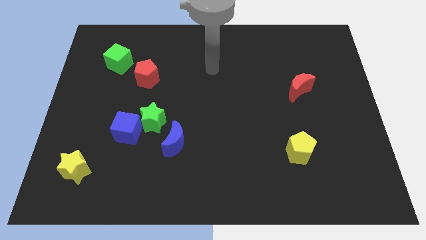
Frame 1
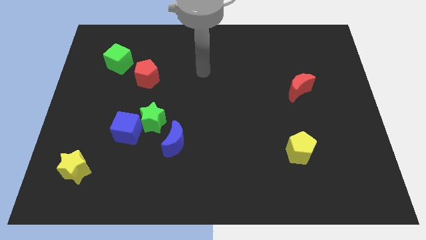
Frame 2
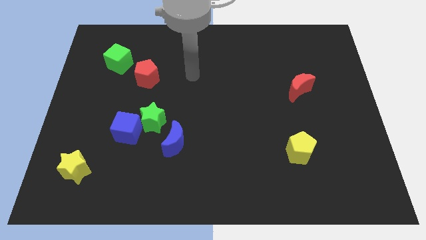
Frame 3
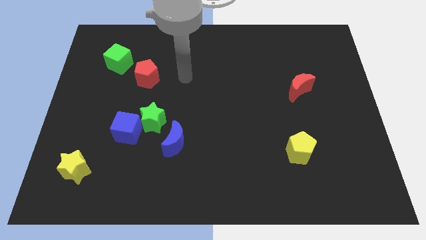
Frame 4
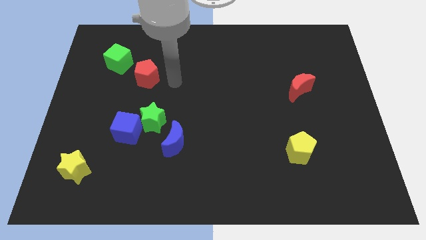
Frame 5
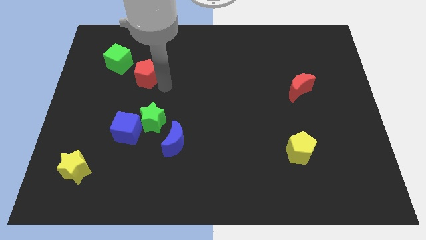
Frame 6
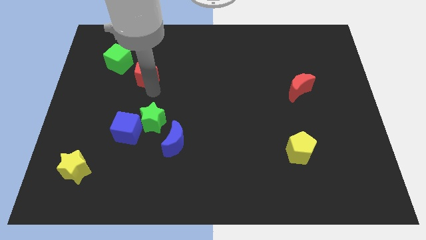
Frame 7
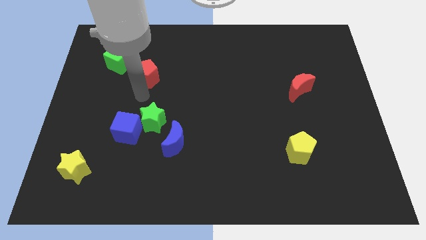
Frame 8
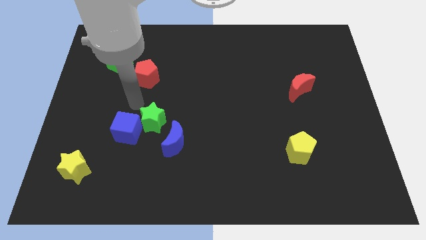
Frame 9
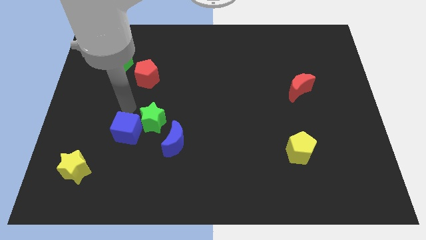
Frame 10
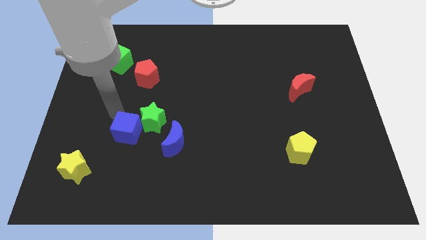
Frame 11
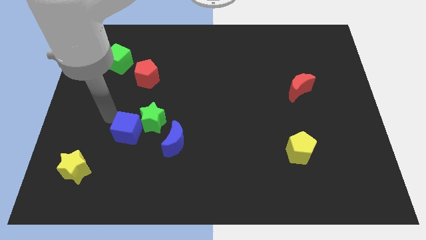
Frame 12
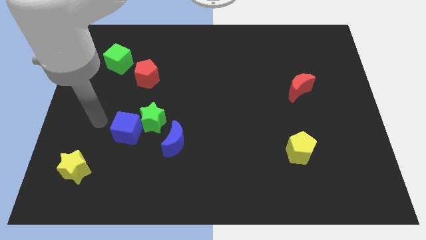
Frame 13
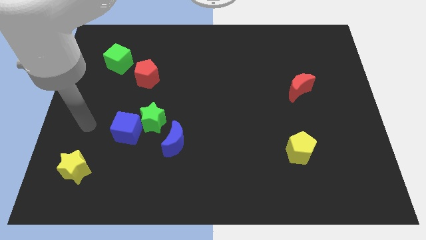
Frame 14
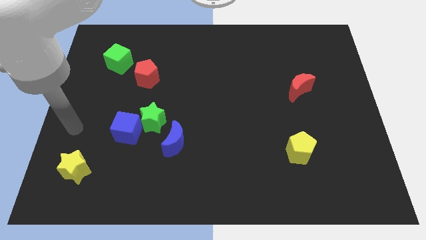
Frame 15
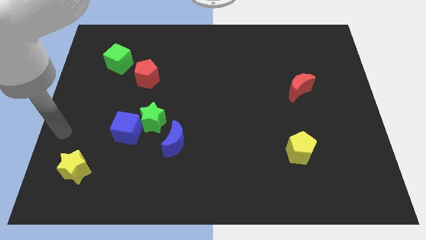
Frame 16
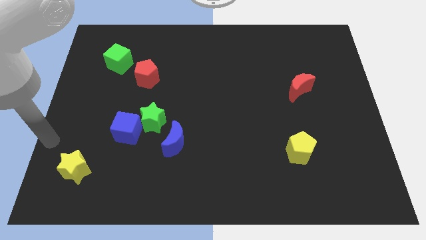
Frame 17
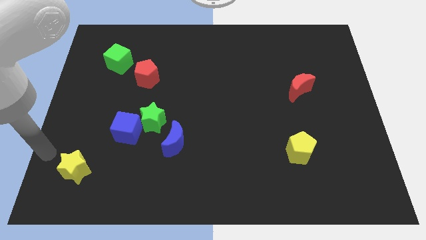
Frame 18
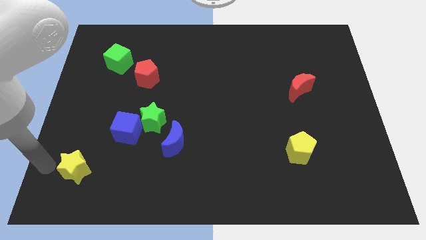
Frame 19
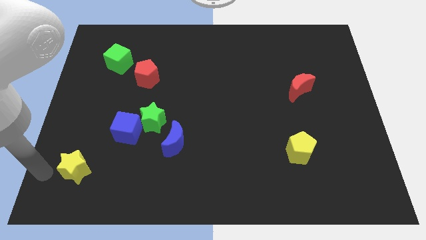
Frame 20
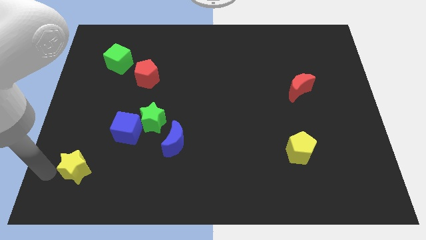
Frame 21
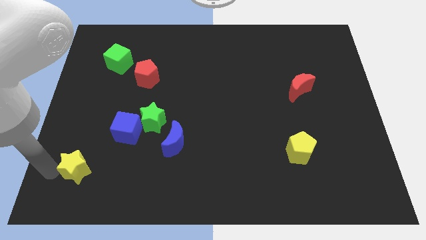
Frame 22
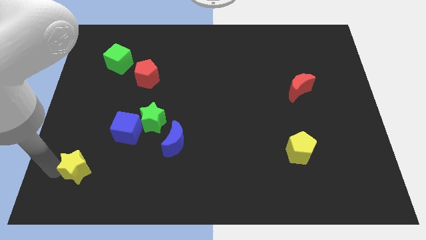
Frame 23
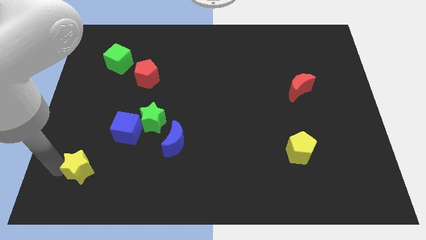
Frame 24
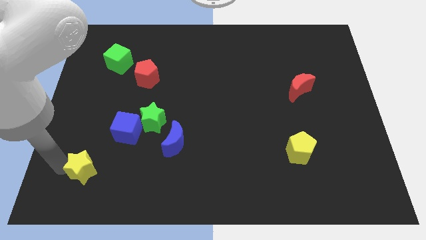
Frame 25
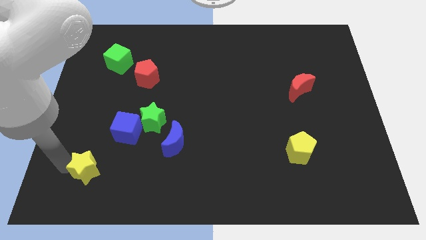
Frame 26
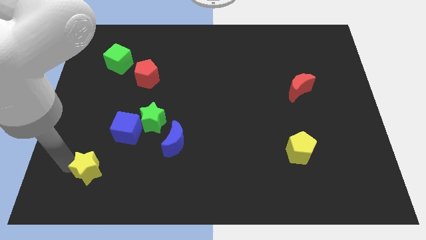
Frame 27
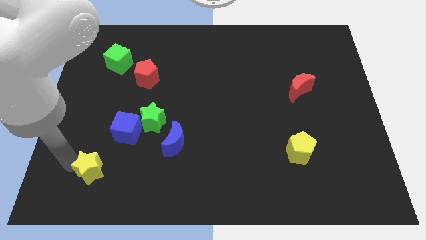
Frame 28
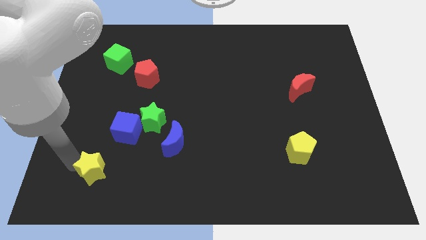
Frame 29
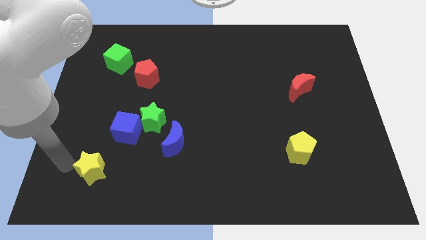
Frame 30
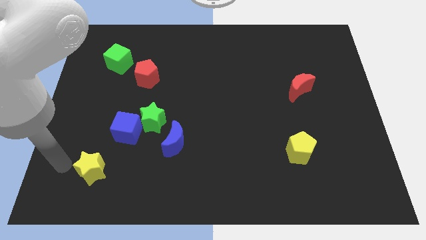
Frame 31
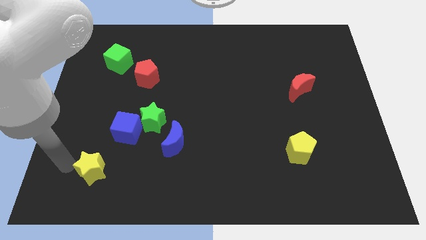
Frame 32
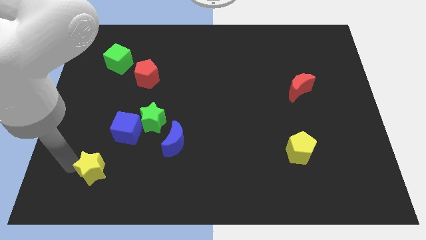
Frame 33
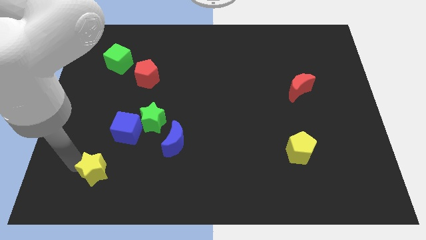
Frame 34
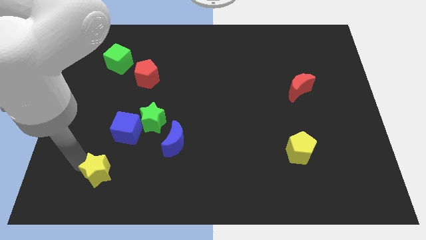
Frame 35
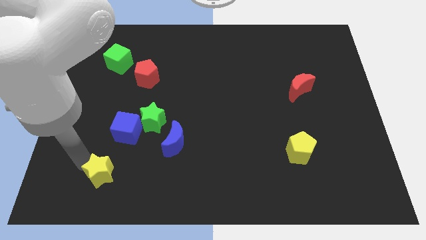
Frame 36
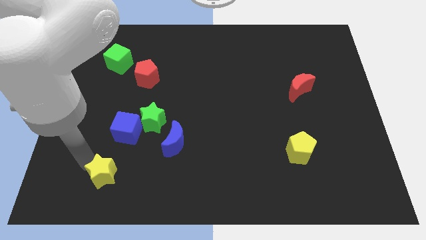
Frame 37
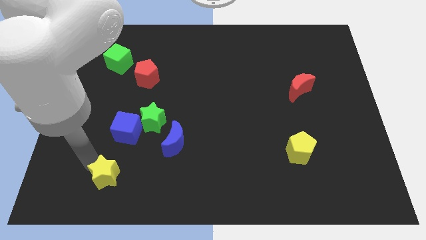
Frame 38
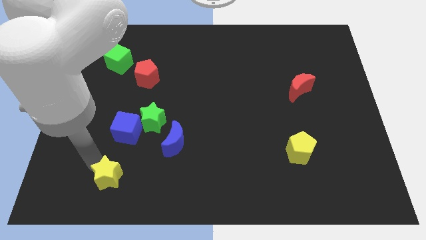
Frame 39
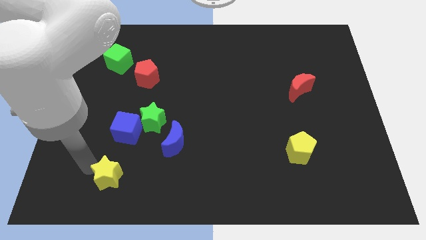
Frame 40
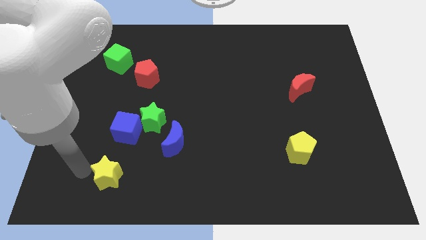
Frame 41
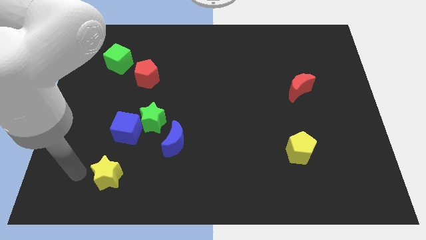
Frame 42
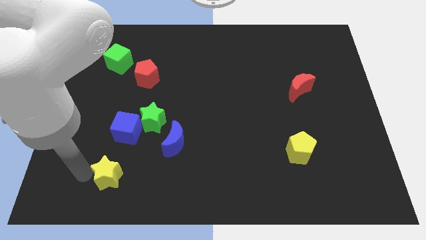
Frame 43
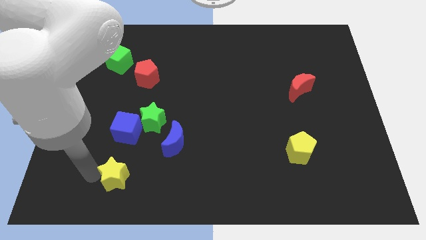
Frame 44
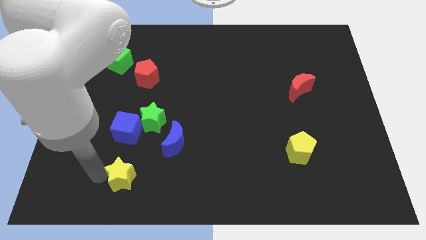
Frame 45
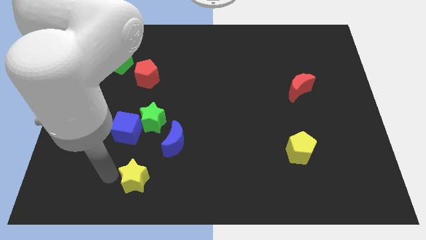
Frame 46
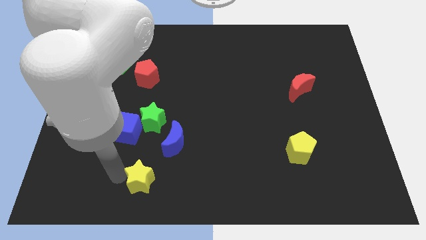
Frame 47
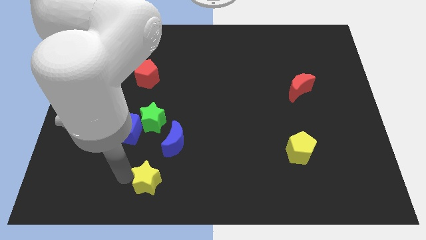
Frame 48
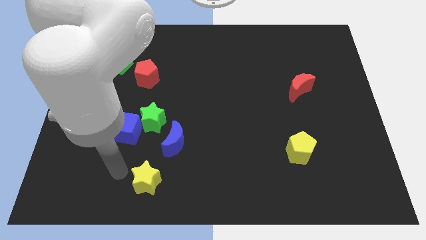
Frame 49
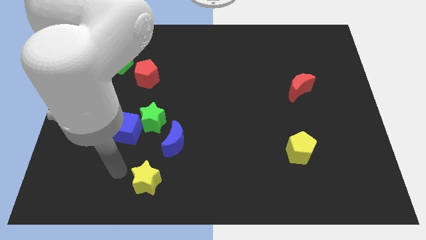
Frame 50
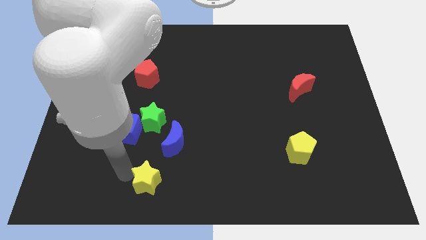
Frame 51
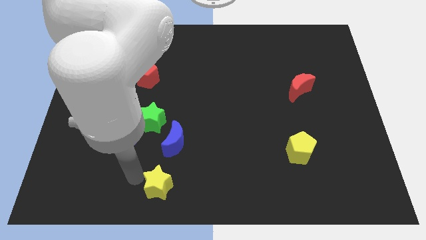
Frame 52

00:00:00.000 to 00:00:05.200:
put the yellow star to the bottom side

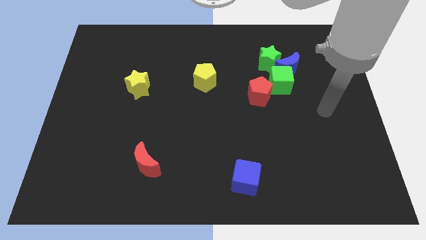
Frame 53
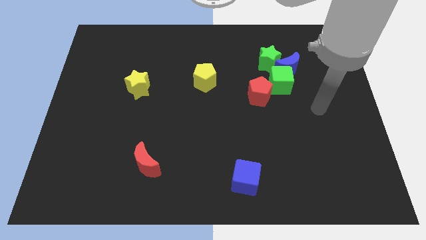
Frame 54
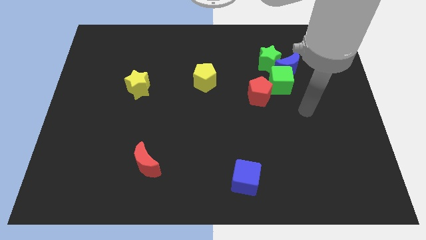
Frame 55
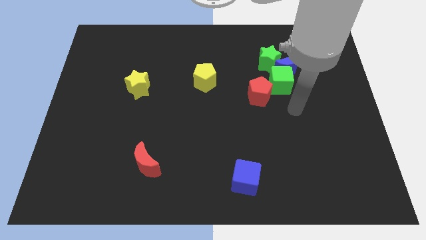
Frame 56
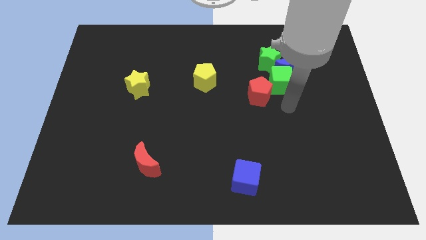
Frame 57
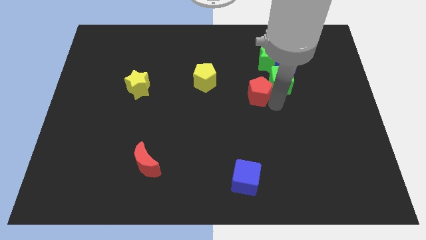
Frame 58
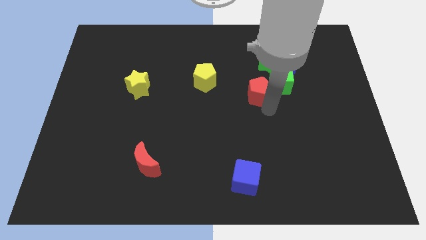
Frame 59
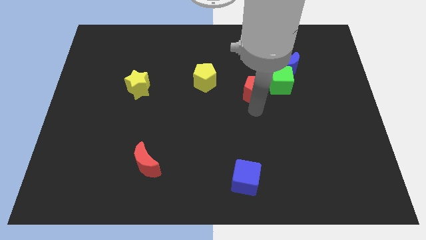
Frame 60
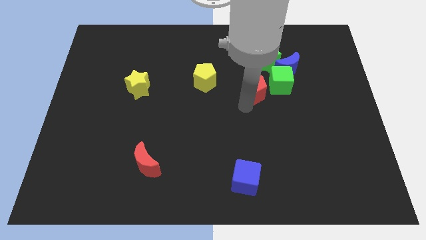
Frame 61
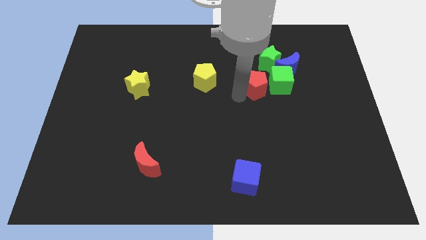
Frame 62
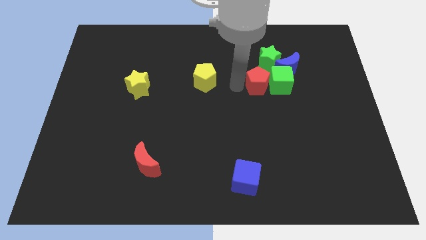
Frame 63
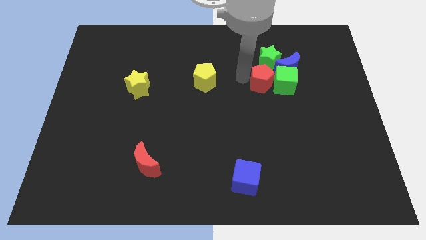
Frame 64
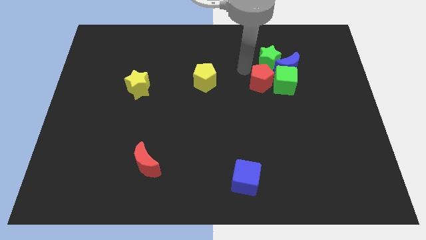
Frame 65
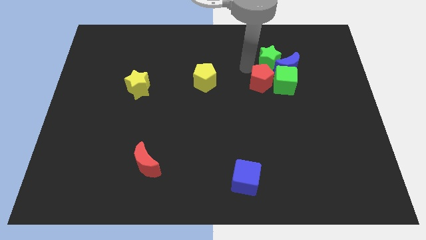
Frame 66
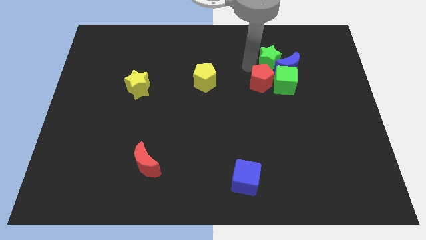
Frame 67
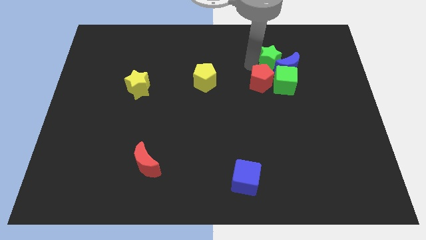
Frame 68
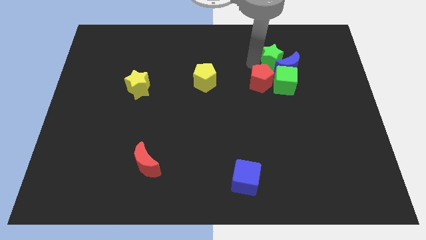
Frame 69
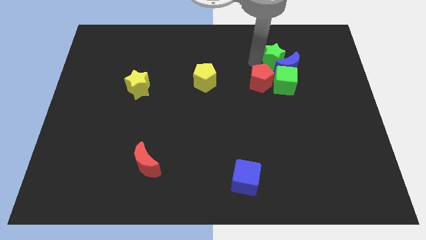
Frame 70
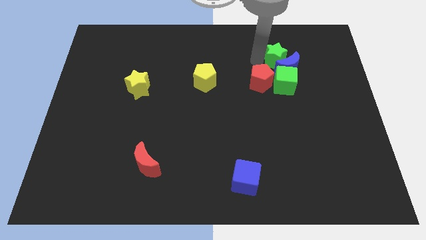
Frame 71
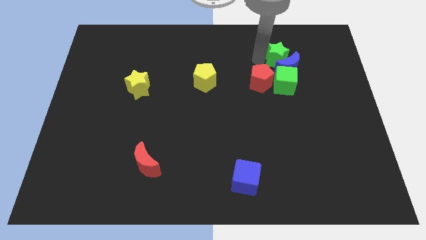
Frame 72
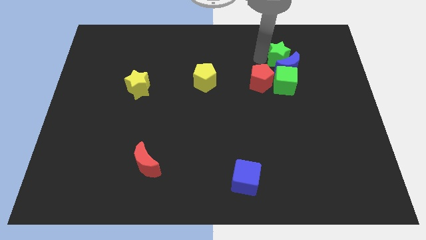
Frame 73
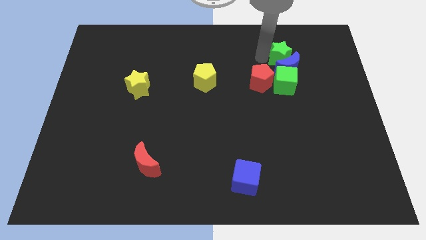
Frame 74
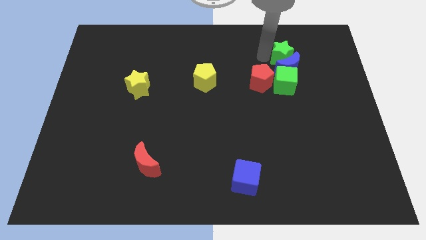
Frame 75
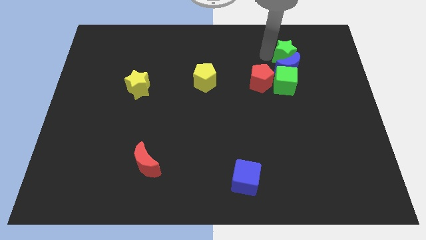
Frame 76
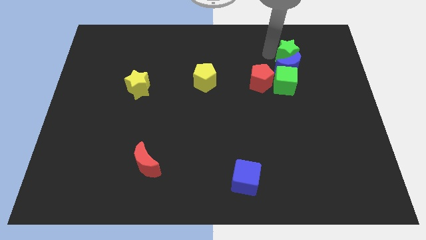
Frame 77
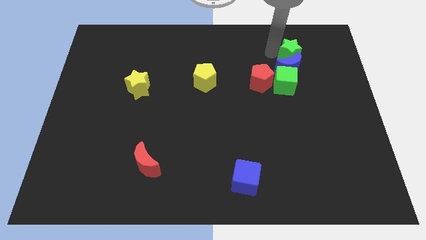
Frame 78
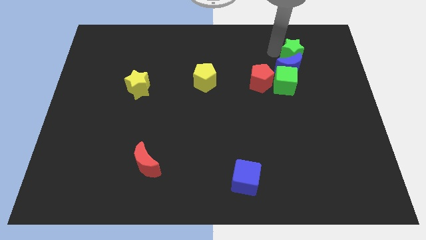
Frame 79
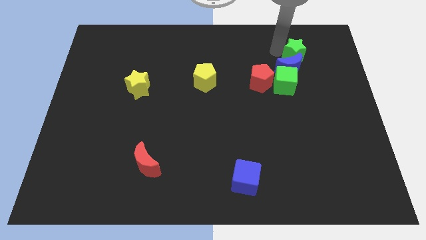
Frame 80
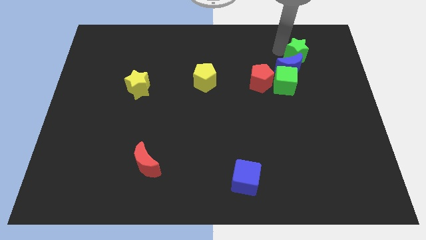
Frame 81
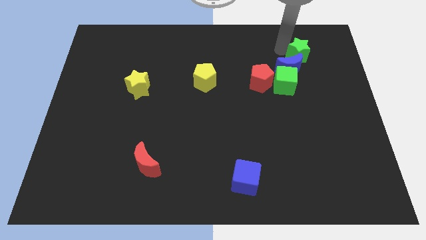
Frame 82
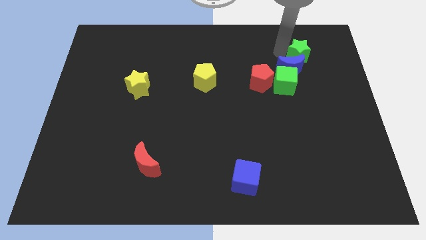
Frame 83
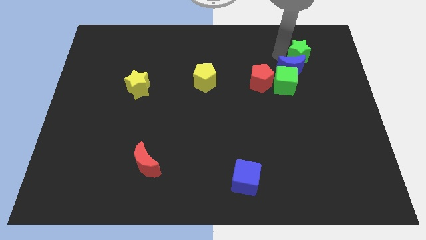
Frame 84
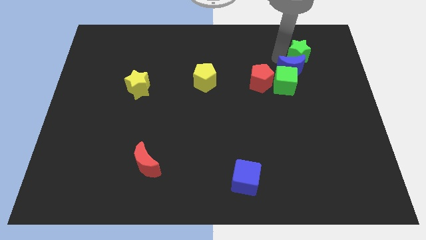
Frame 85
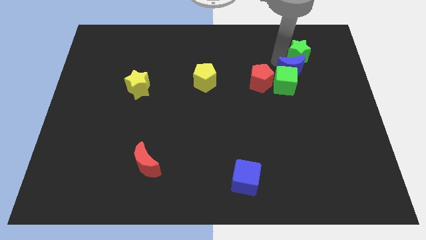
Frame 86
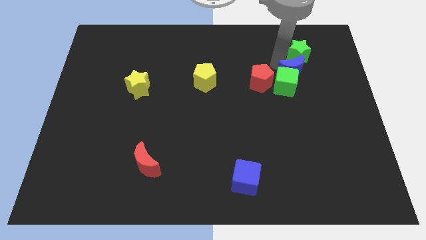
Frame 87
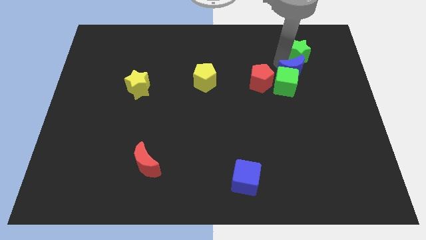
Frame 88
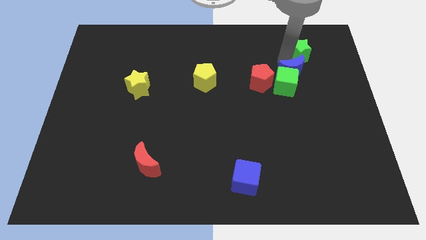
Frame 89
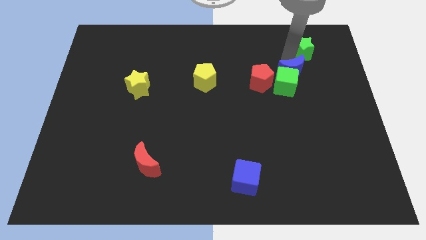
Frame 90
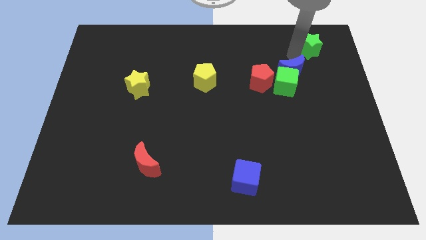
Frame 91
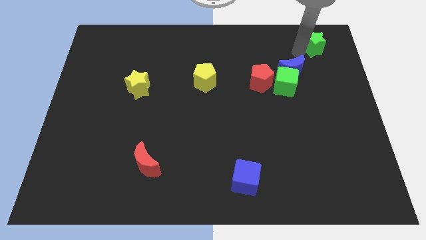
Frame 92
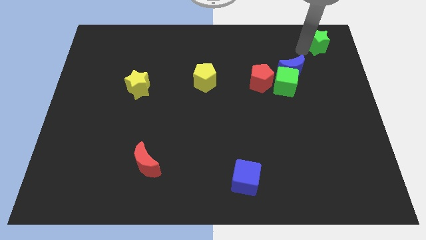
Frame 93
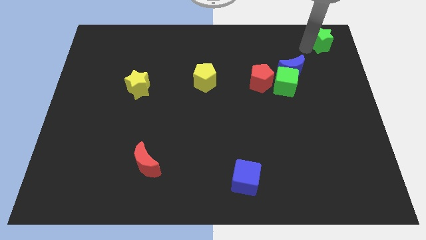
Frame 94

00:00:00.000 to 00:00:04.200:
push the green star to the top right of the board
